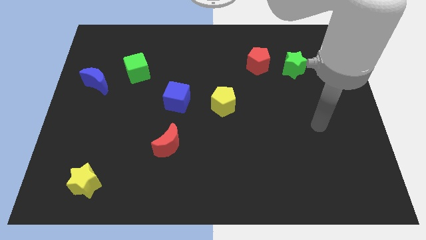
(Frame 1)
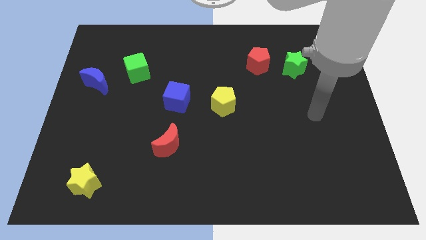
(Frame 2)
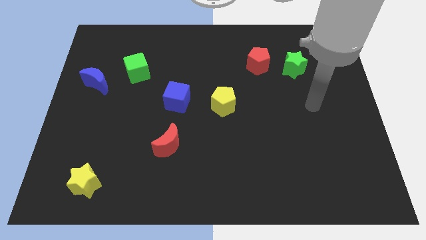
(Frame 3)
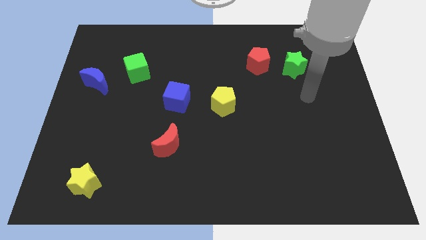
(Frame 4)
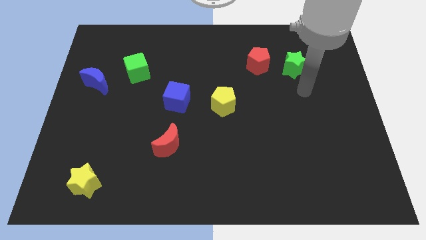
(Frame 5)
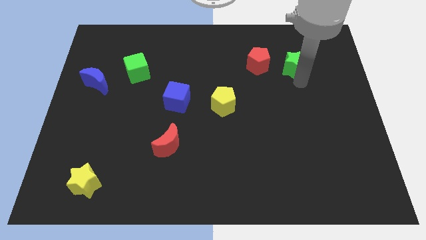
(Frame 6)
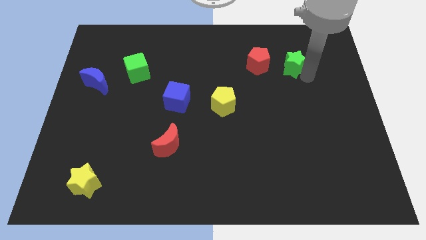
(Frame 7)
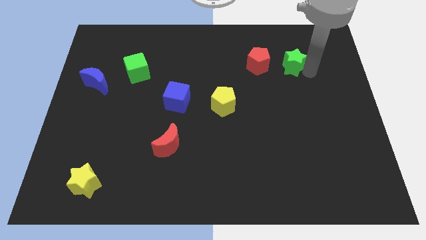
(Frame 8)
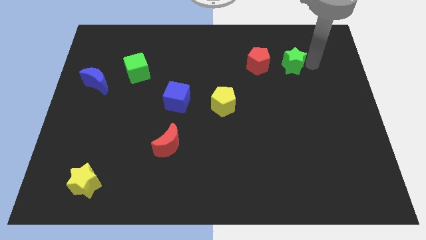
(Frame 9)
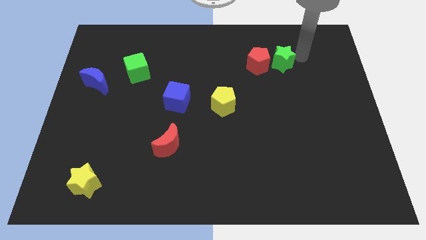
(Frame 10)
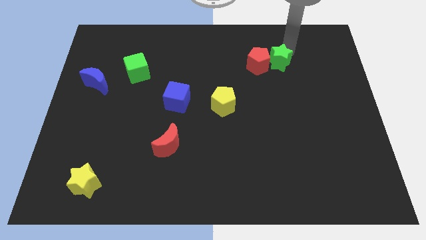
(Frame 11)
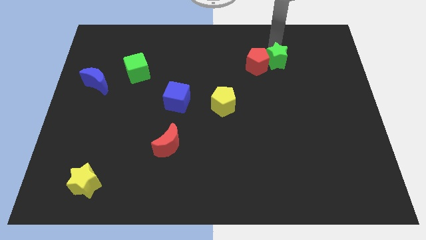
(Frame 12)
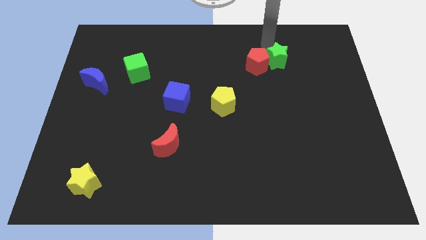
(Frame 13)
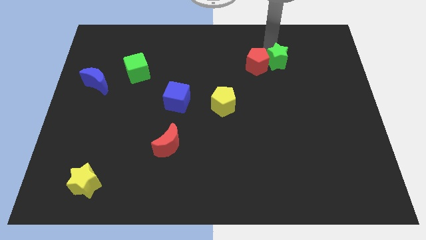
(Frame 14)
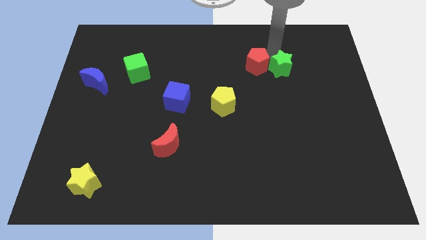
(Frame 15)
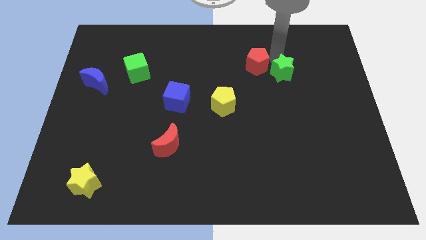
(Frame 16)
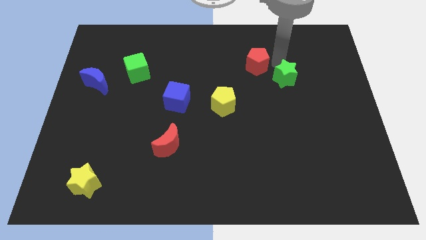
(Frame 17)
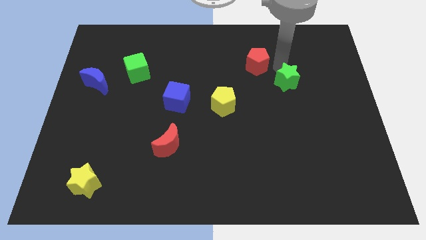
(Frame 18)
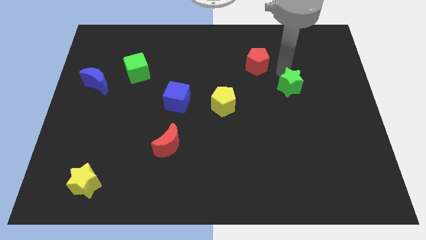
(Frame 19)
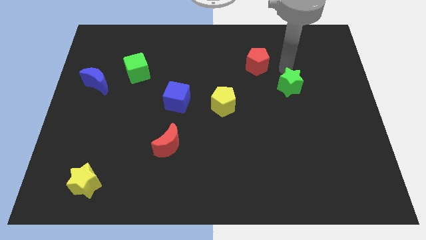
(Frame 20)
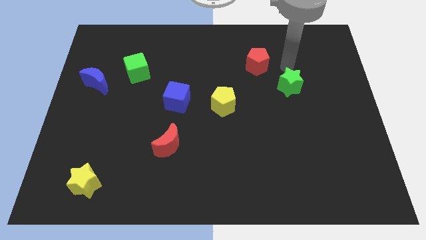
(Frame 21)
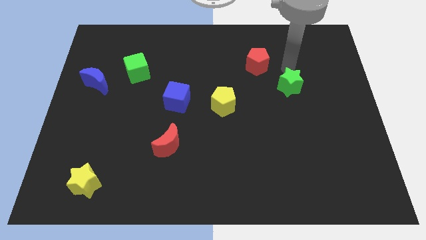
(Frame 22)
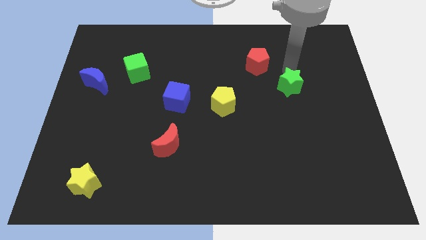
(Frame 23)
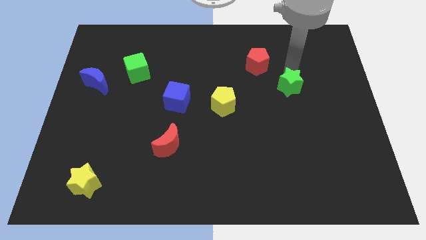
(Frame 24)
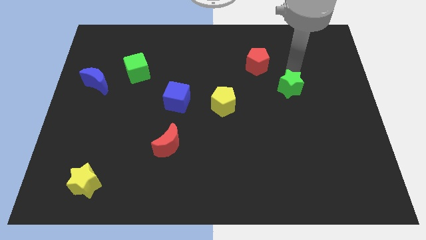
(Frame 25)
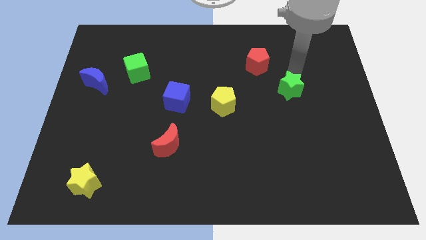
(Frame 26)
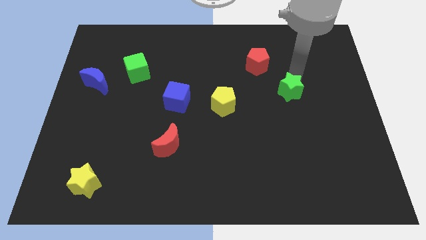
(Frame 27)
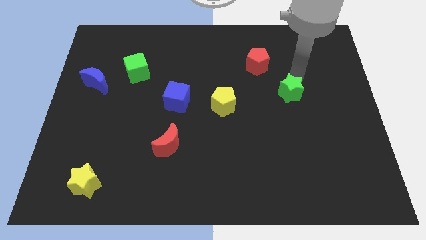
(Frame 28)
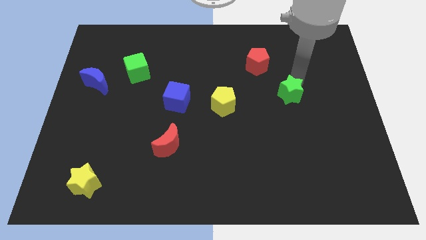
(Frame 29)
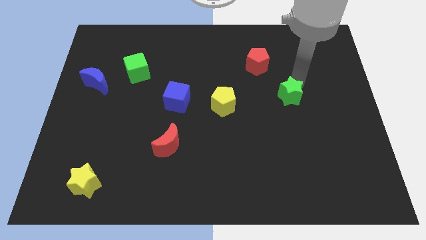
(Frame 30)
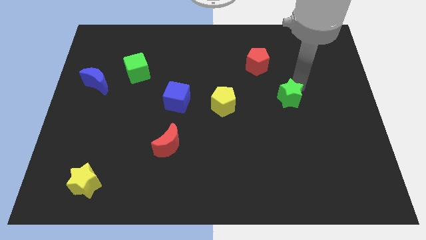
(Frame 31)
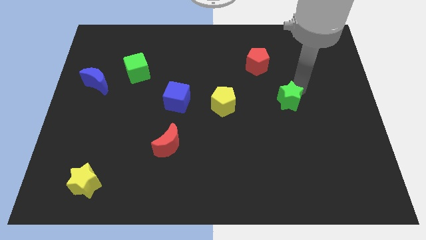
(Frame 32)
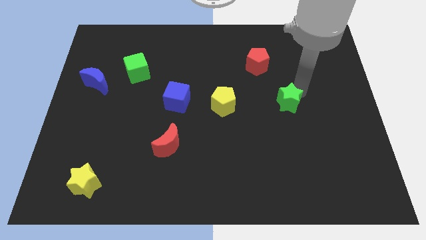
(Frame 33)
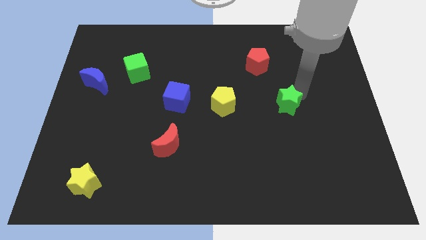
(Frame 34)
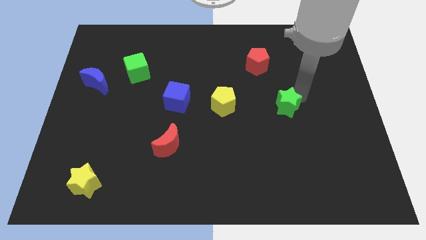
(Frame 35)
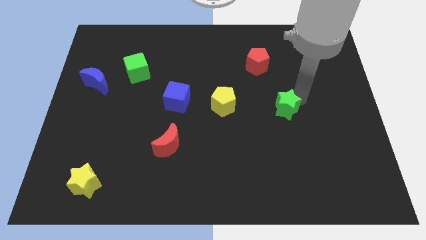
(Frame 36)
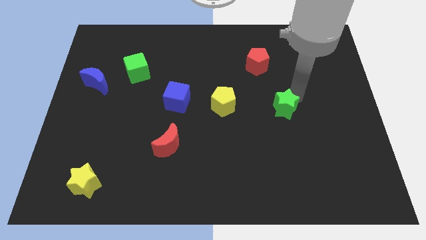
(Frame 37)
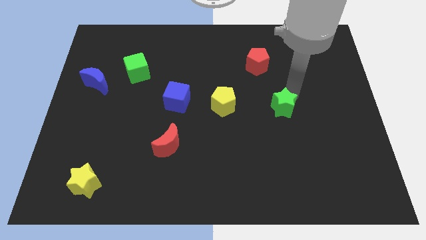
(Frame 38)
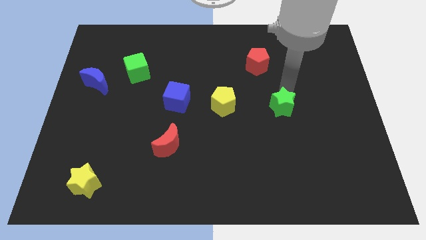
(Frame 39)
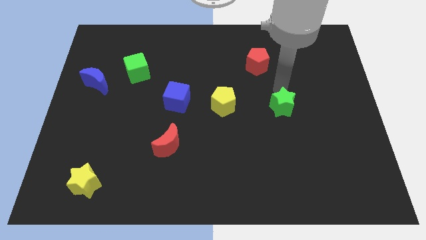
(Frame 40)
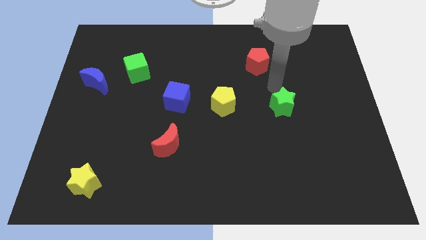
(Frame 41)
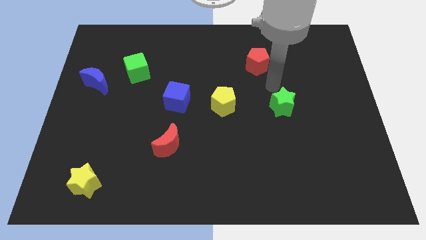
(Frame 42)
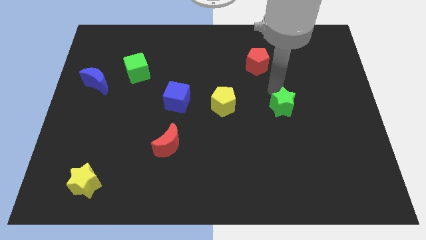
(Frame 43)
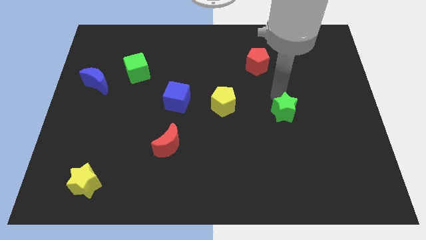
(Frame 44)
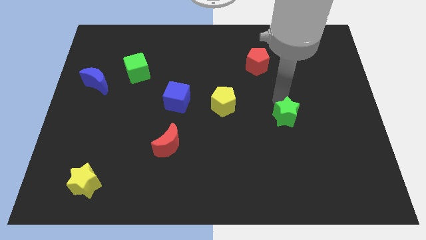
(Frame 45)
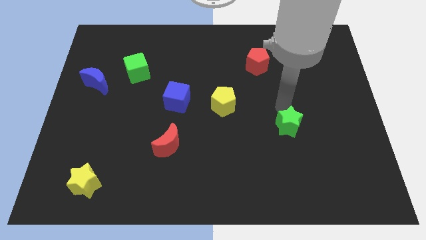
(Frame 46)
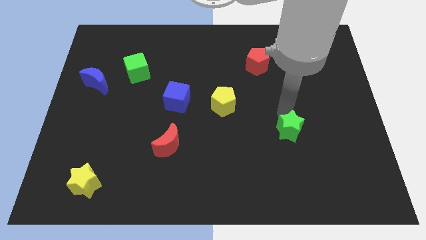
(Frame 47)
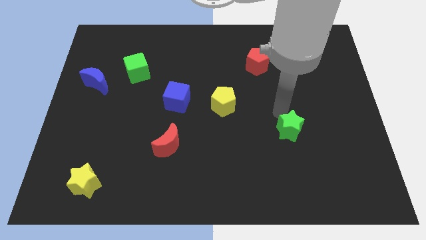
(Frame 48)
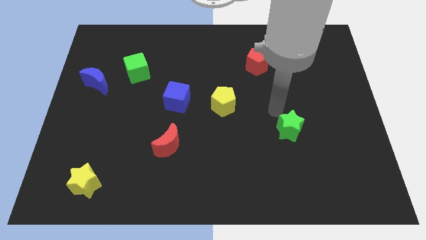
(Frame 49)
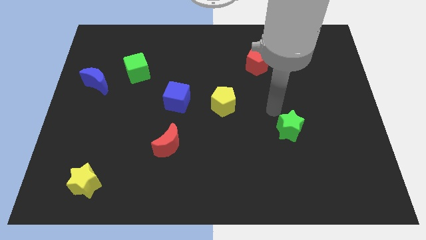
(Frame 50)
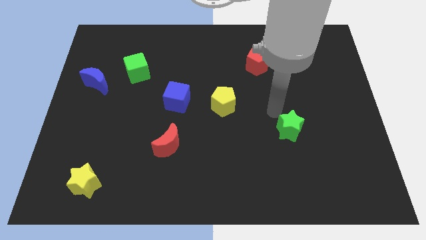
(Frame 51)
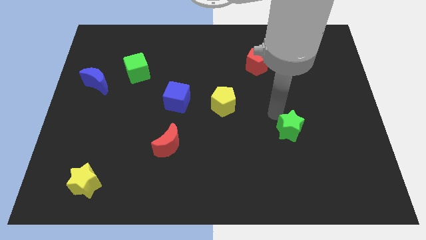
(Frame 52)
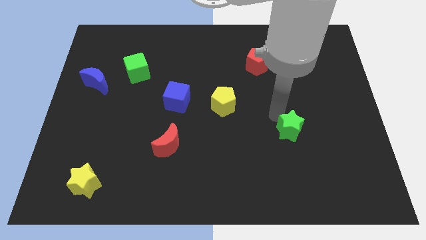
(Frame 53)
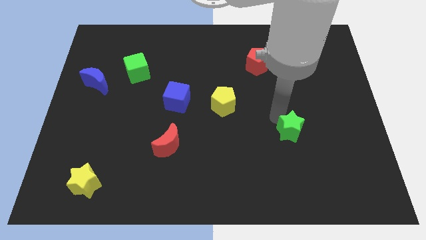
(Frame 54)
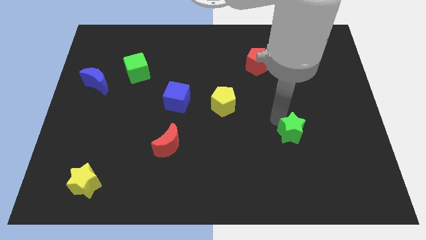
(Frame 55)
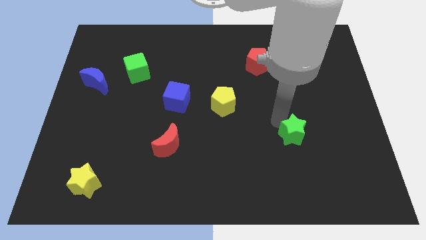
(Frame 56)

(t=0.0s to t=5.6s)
slide the green star down

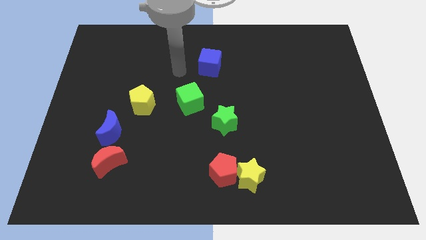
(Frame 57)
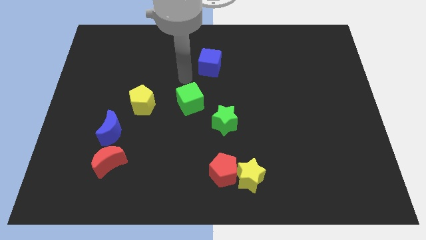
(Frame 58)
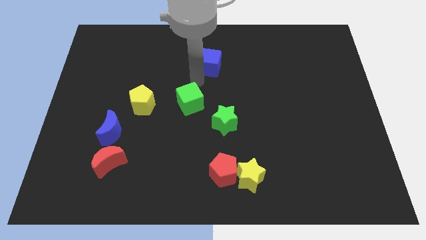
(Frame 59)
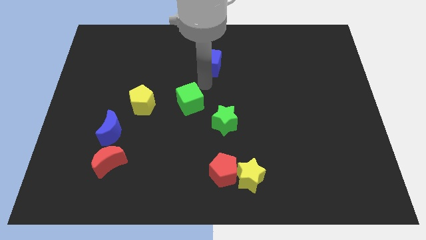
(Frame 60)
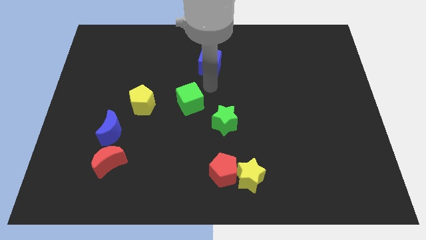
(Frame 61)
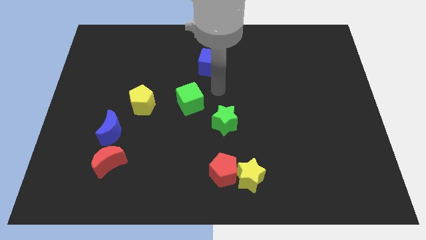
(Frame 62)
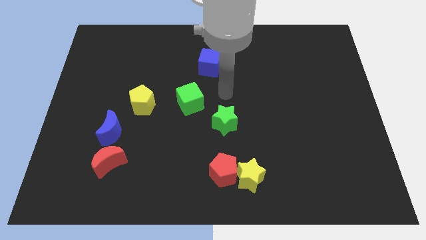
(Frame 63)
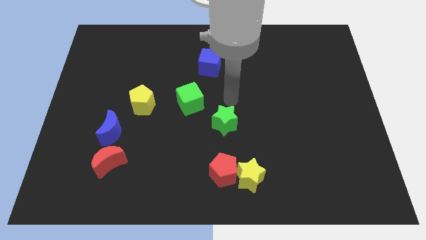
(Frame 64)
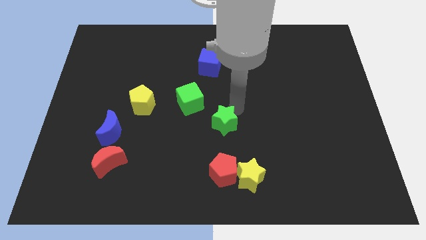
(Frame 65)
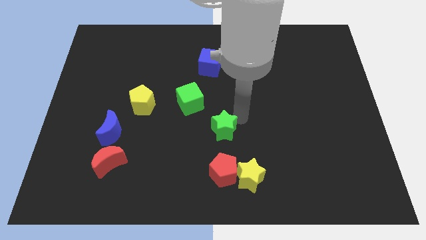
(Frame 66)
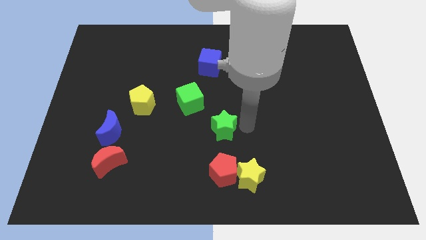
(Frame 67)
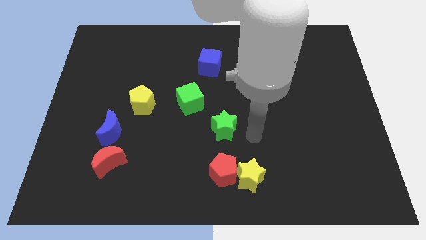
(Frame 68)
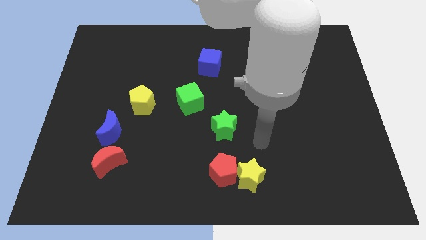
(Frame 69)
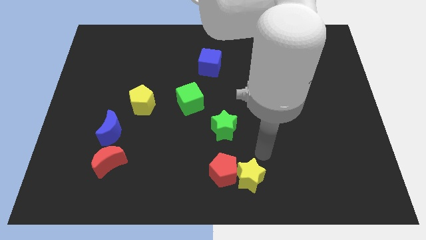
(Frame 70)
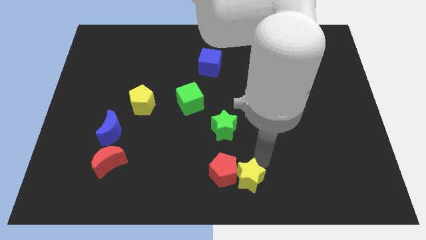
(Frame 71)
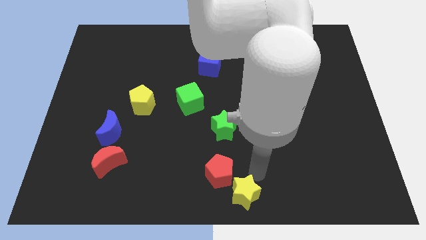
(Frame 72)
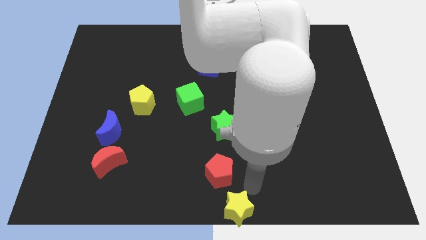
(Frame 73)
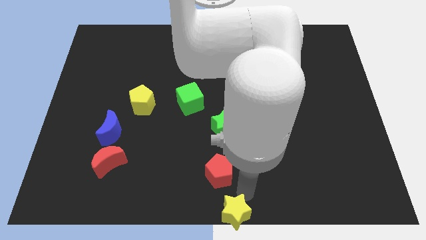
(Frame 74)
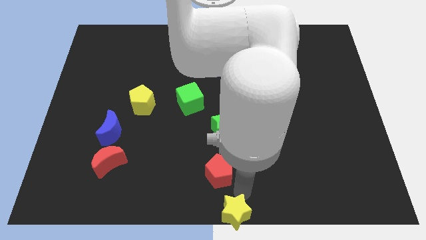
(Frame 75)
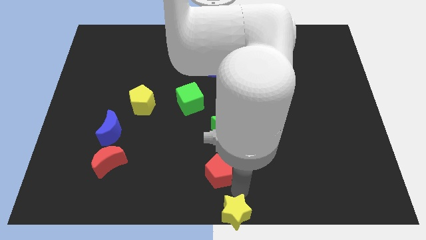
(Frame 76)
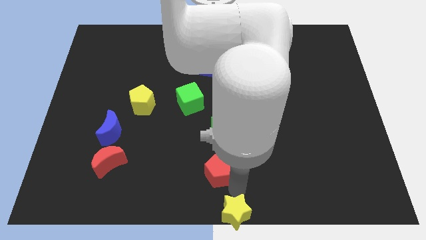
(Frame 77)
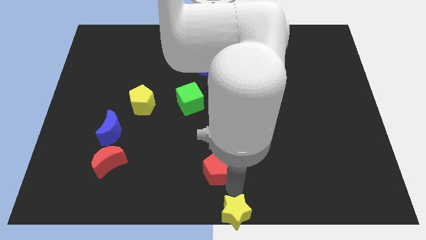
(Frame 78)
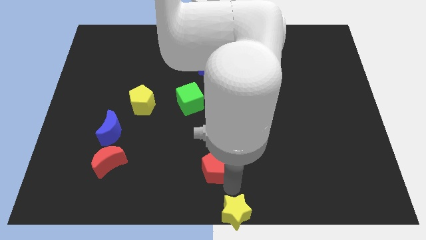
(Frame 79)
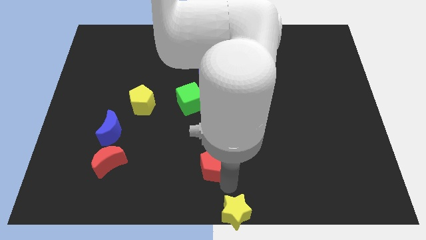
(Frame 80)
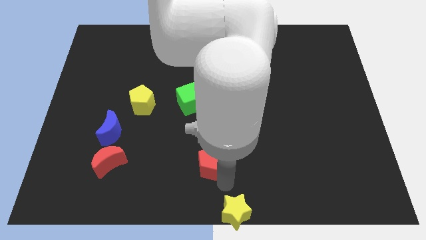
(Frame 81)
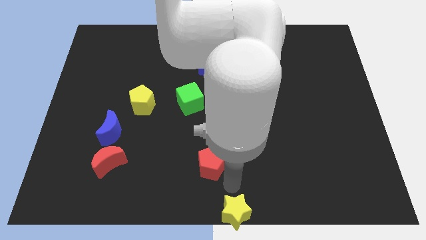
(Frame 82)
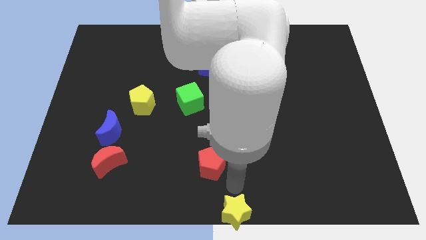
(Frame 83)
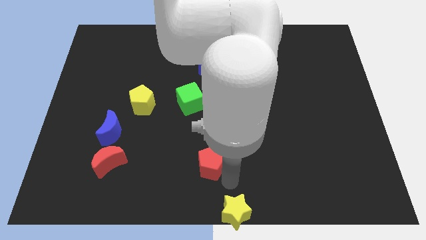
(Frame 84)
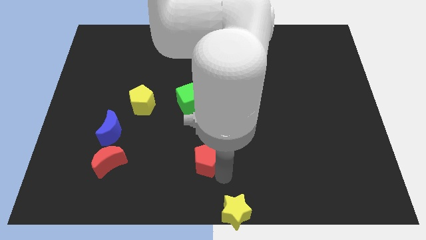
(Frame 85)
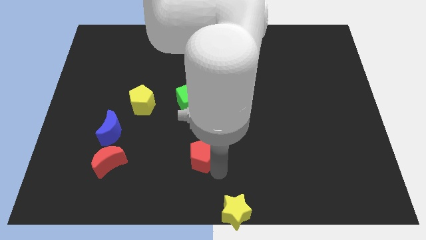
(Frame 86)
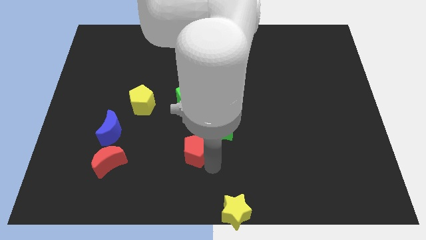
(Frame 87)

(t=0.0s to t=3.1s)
slightly slide the red pentagon upwards and to the left
